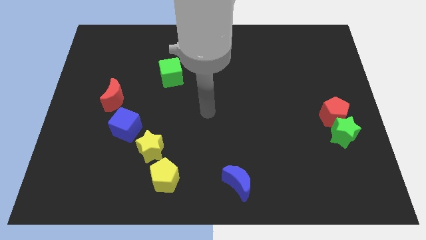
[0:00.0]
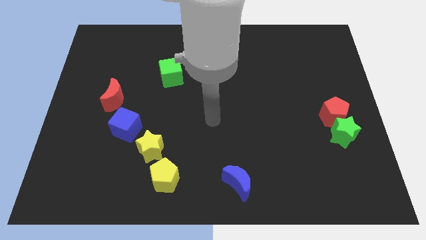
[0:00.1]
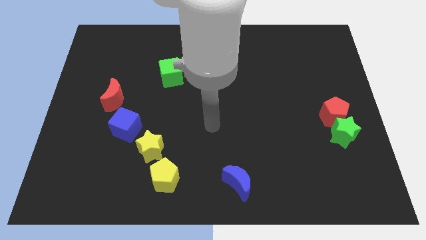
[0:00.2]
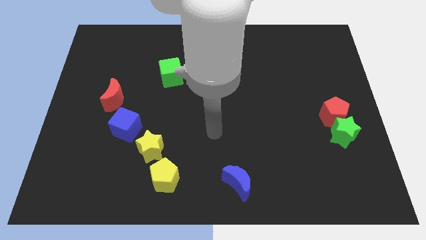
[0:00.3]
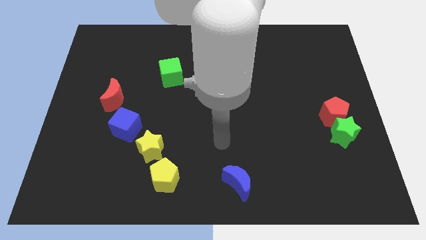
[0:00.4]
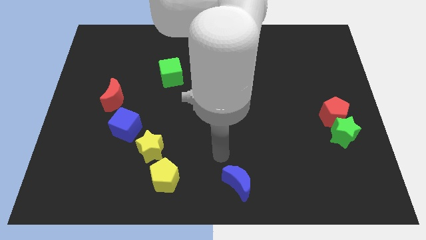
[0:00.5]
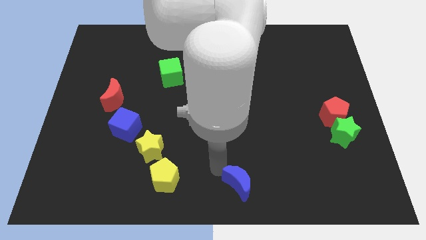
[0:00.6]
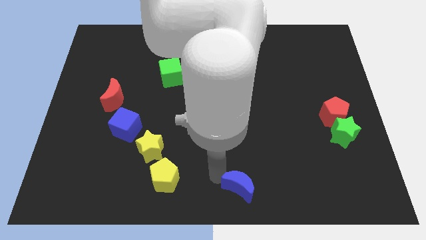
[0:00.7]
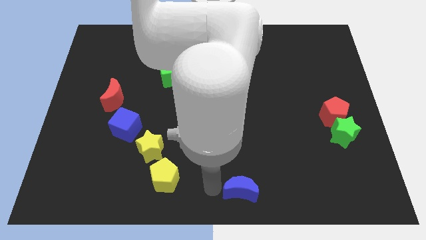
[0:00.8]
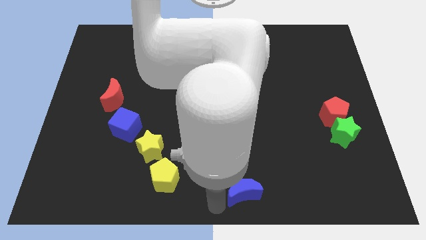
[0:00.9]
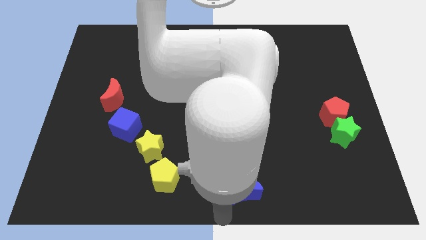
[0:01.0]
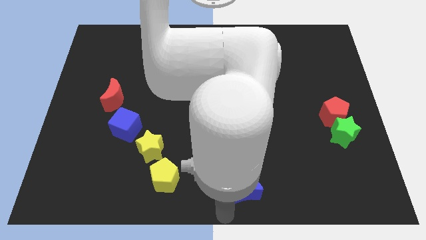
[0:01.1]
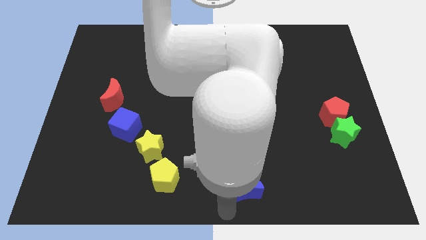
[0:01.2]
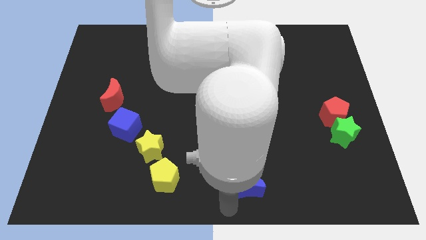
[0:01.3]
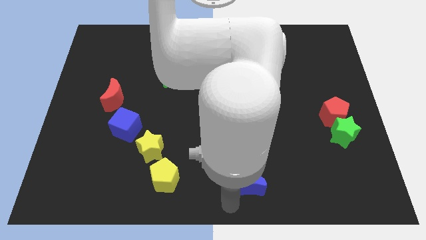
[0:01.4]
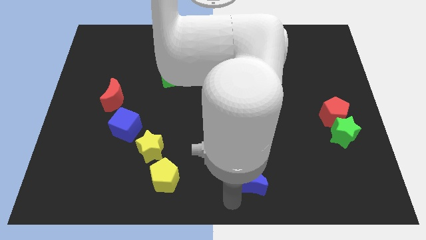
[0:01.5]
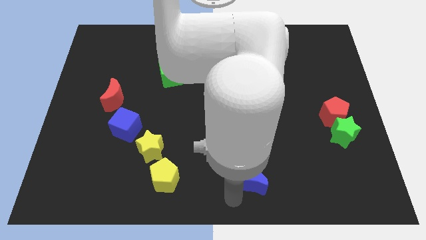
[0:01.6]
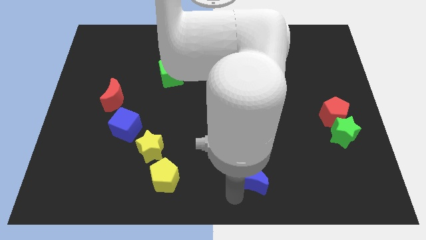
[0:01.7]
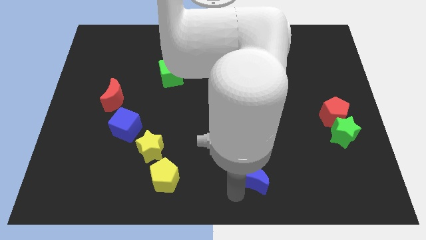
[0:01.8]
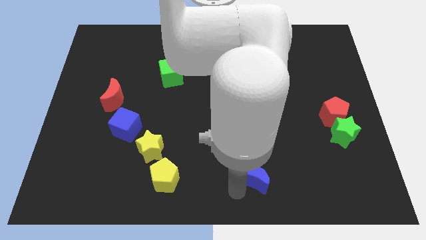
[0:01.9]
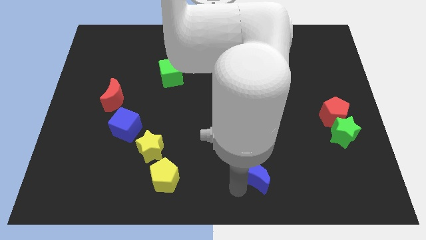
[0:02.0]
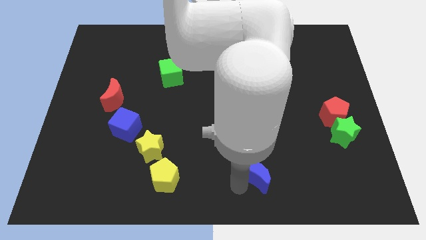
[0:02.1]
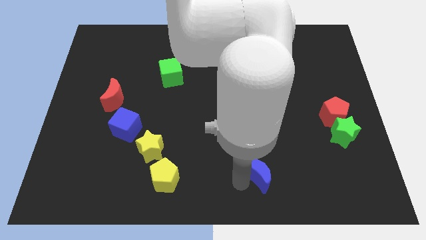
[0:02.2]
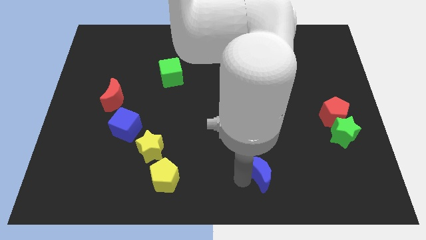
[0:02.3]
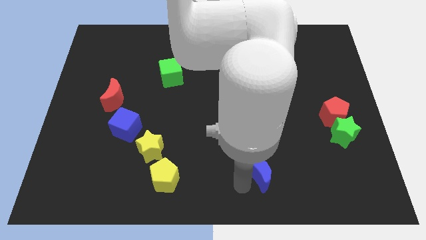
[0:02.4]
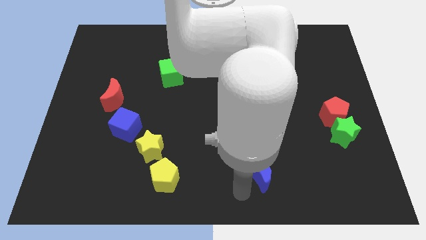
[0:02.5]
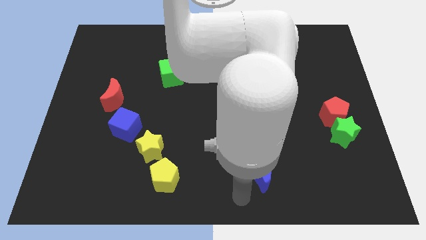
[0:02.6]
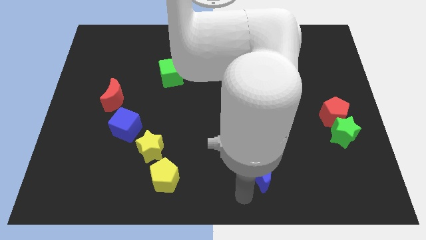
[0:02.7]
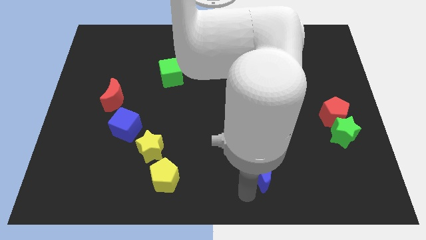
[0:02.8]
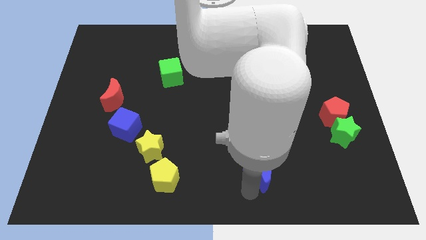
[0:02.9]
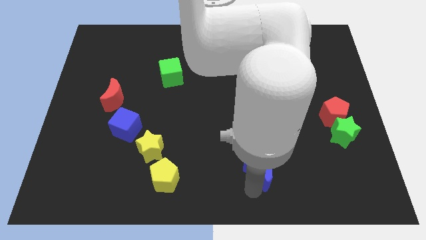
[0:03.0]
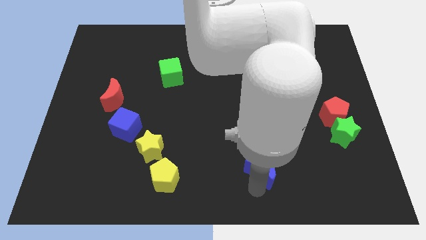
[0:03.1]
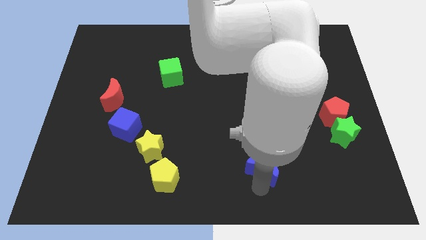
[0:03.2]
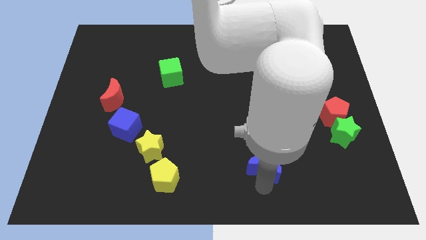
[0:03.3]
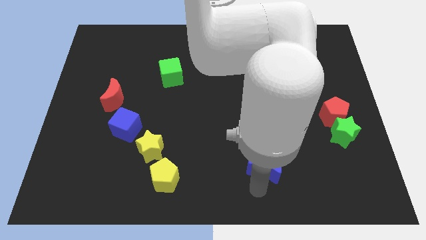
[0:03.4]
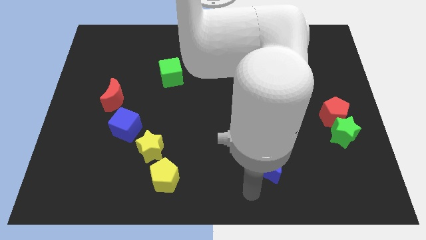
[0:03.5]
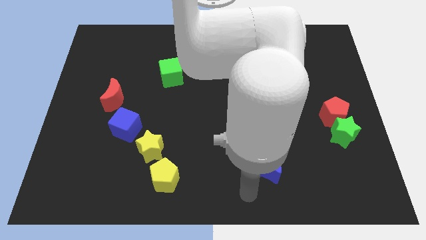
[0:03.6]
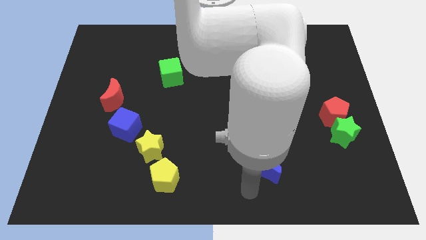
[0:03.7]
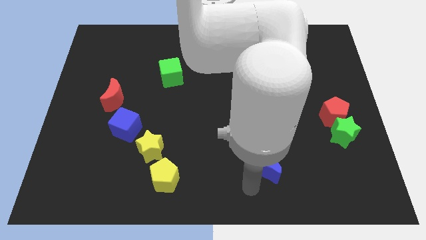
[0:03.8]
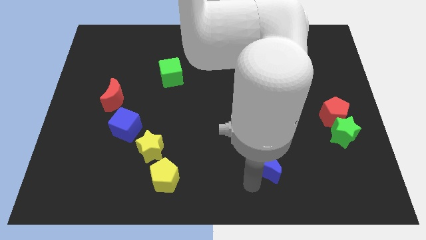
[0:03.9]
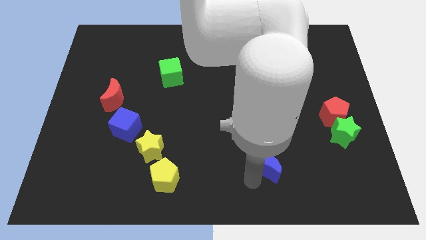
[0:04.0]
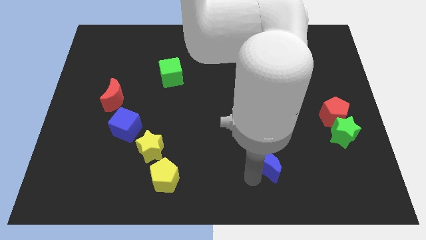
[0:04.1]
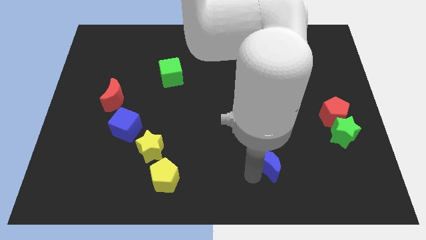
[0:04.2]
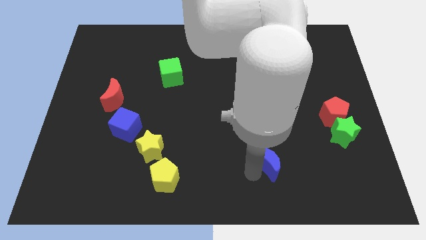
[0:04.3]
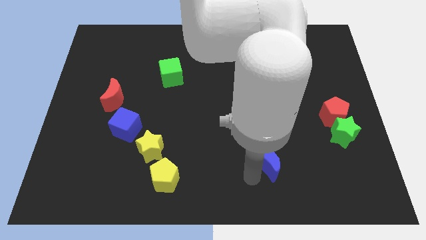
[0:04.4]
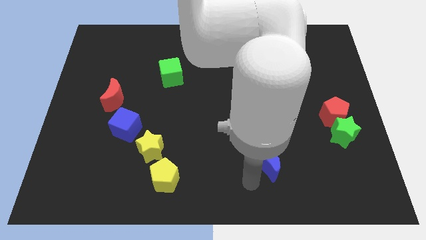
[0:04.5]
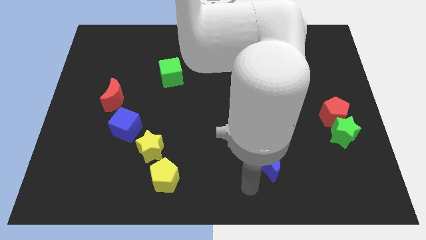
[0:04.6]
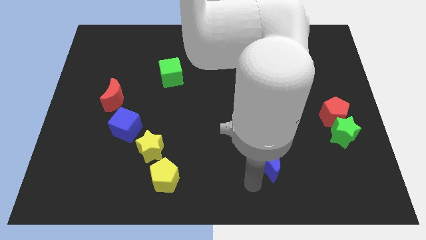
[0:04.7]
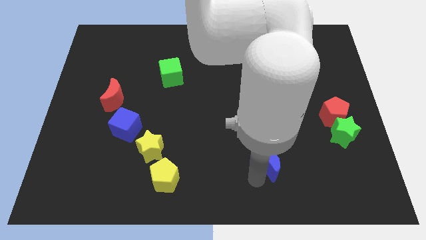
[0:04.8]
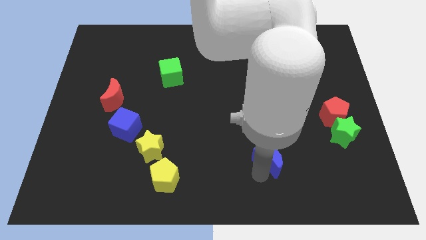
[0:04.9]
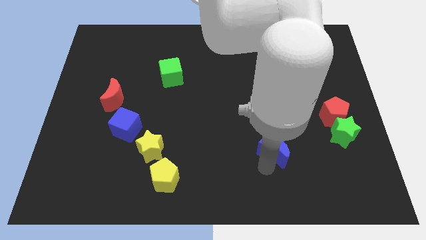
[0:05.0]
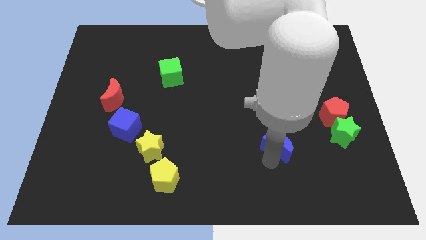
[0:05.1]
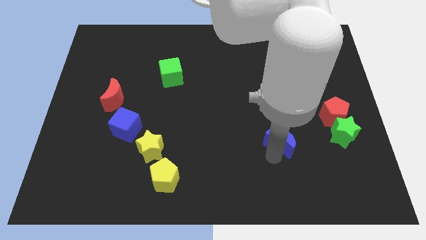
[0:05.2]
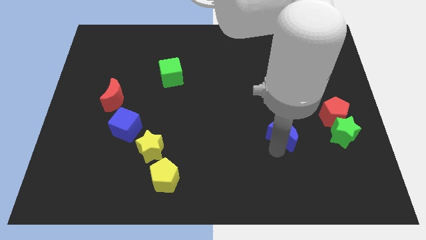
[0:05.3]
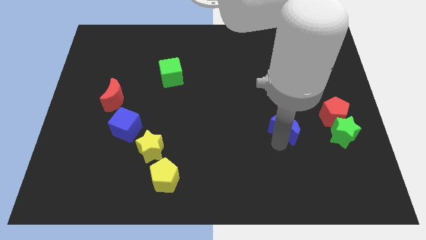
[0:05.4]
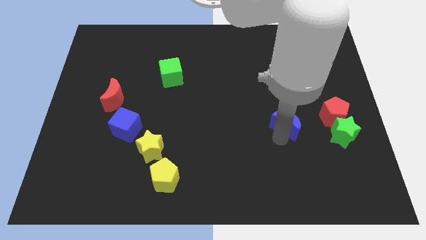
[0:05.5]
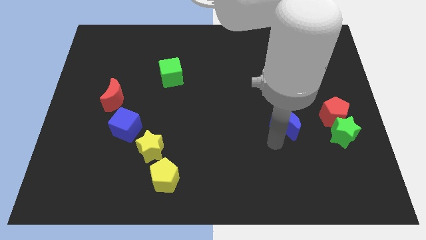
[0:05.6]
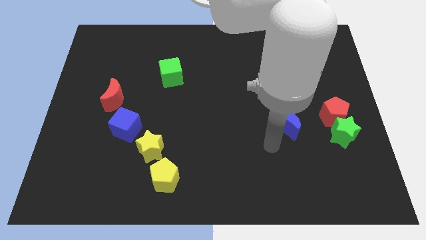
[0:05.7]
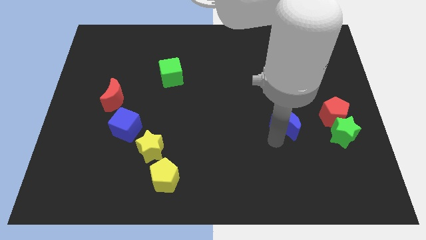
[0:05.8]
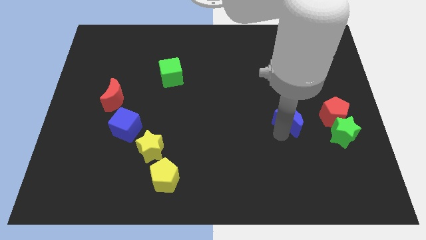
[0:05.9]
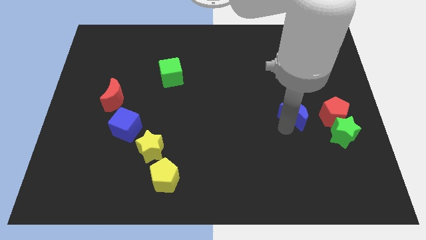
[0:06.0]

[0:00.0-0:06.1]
move the blue moon up and then right

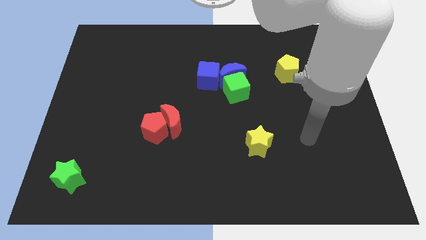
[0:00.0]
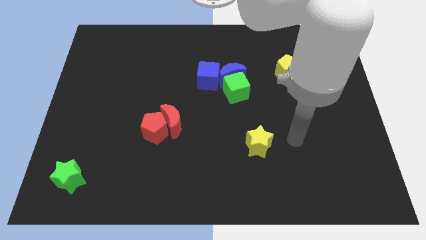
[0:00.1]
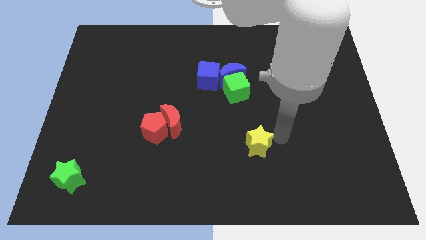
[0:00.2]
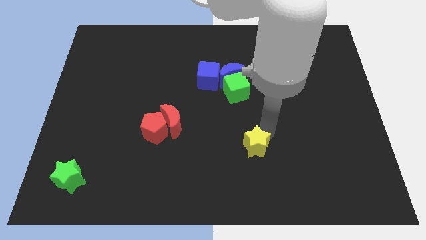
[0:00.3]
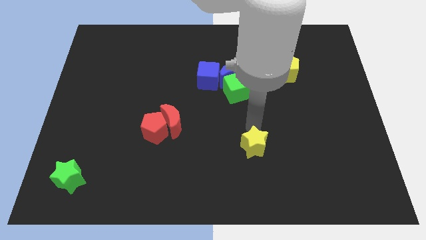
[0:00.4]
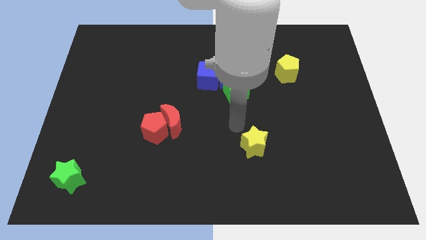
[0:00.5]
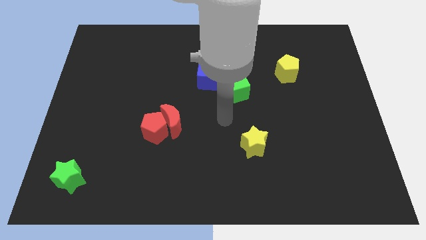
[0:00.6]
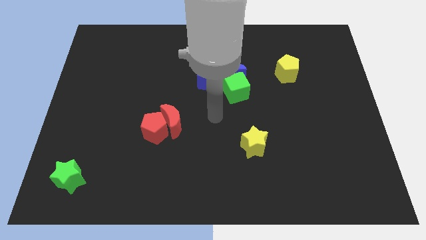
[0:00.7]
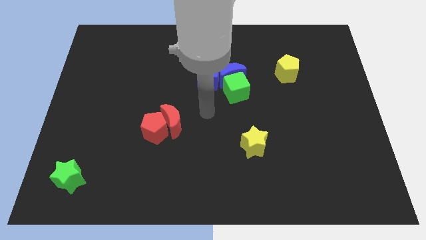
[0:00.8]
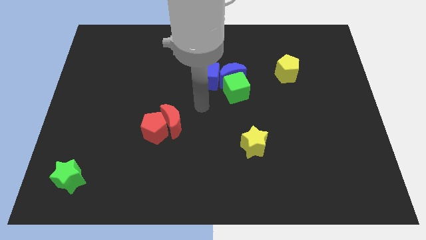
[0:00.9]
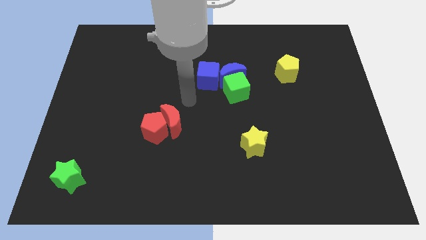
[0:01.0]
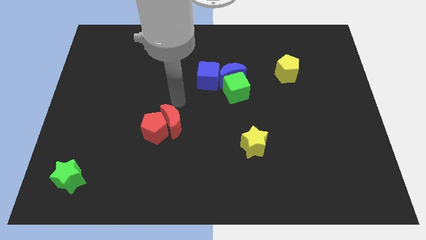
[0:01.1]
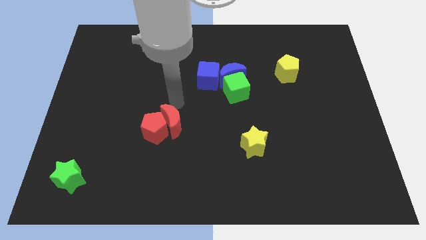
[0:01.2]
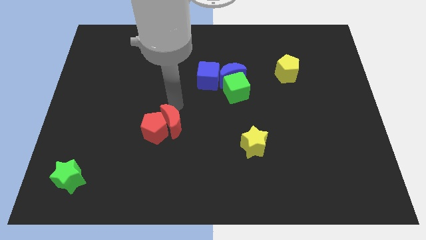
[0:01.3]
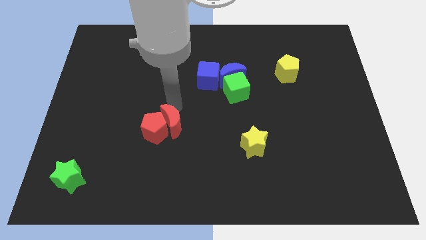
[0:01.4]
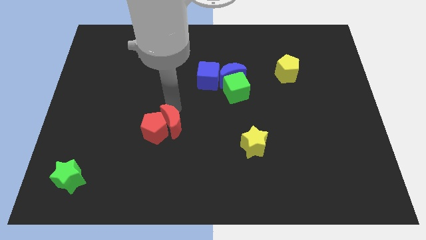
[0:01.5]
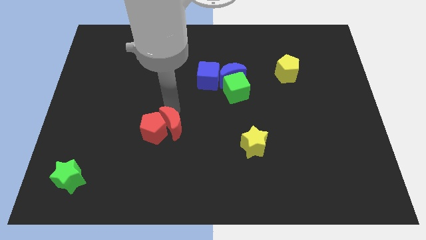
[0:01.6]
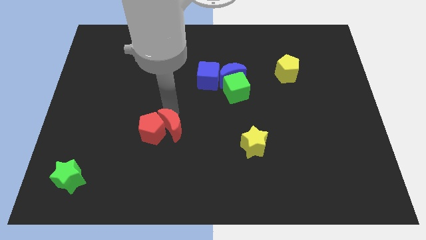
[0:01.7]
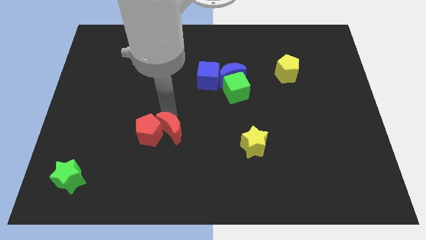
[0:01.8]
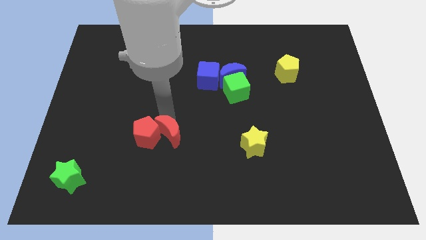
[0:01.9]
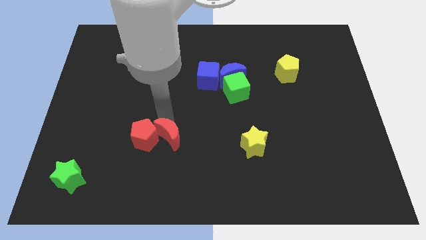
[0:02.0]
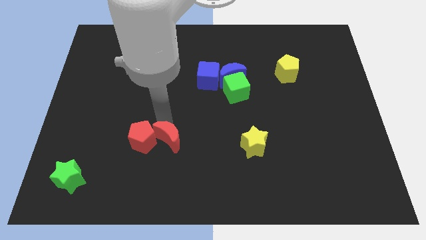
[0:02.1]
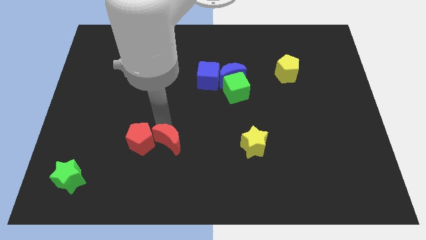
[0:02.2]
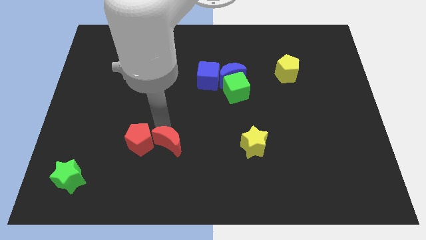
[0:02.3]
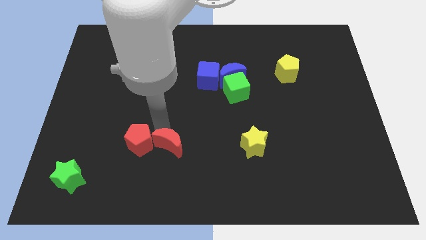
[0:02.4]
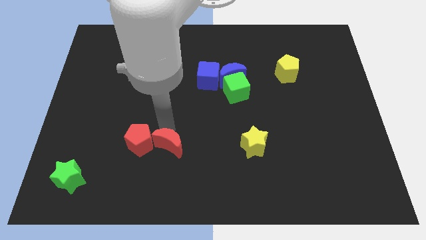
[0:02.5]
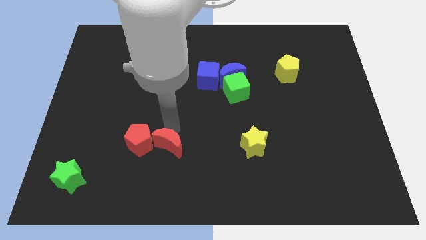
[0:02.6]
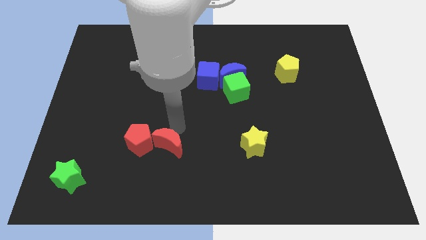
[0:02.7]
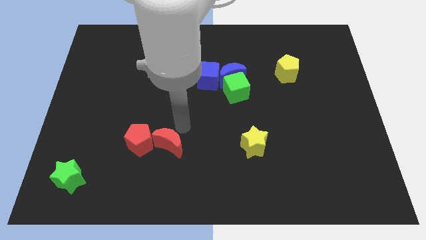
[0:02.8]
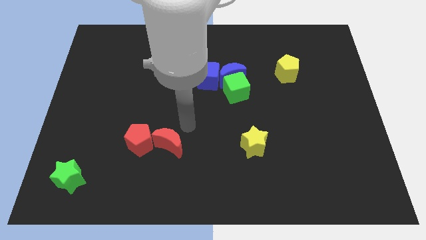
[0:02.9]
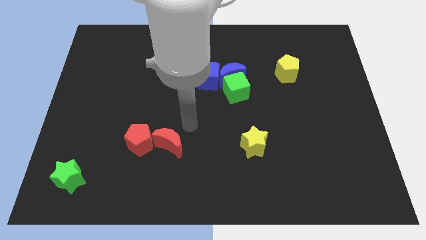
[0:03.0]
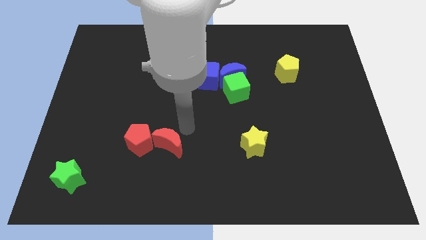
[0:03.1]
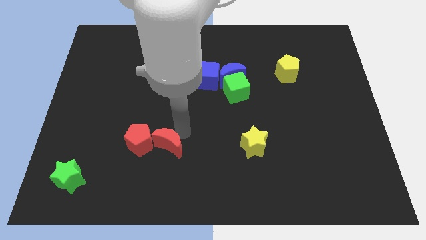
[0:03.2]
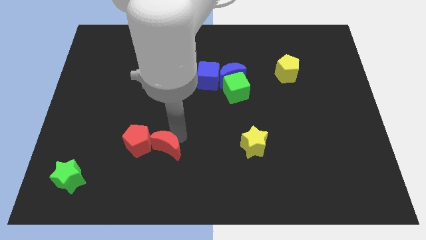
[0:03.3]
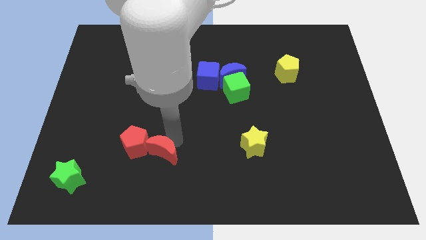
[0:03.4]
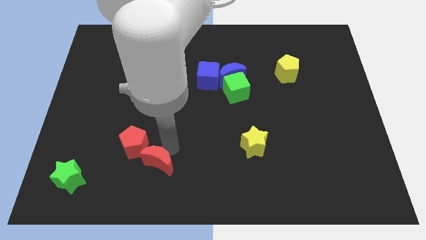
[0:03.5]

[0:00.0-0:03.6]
move the red moon a bit diagonally downwards and left
